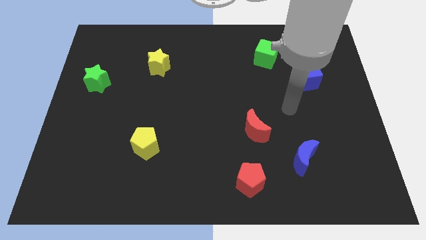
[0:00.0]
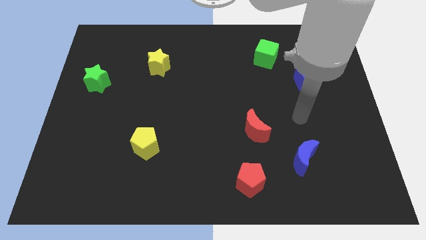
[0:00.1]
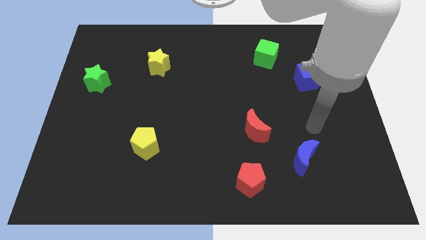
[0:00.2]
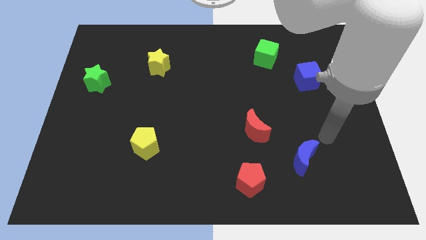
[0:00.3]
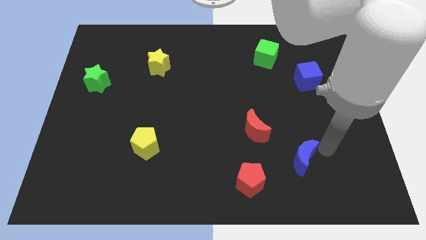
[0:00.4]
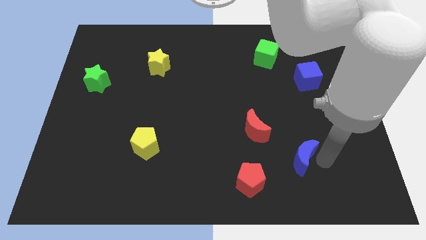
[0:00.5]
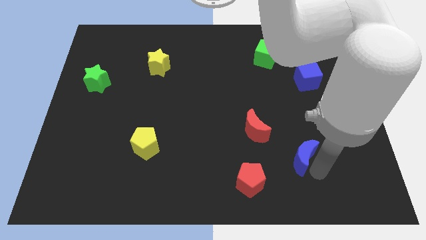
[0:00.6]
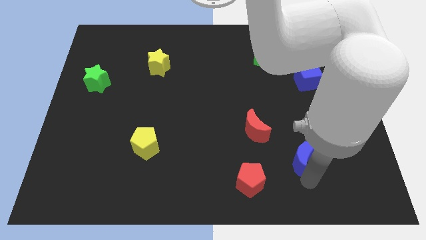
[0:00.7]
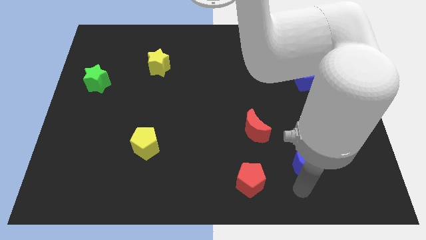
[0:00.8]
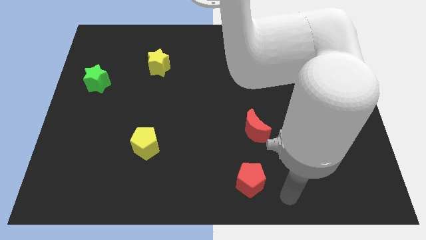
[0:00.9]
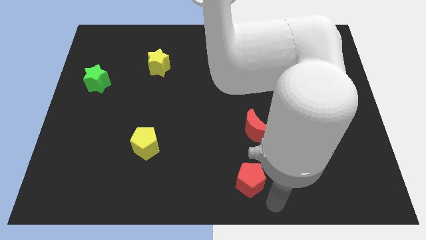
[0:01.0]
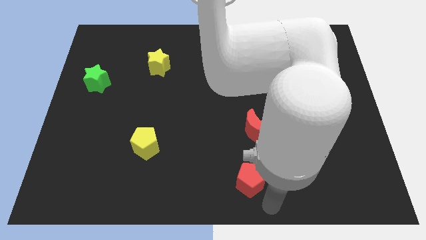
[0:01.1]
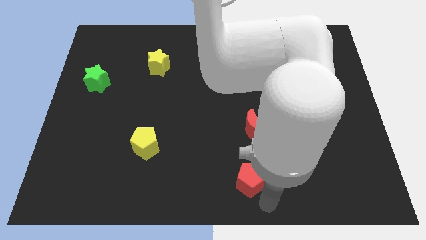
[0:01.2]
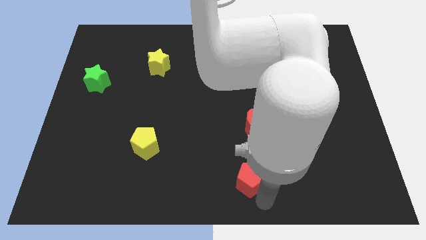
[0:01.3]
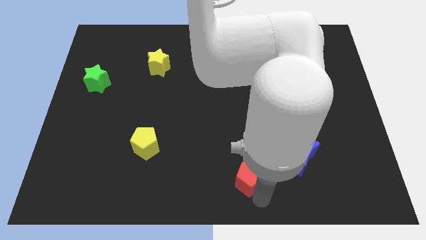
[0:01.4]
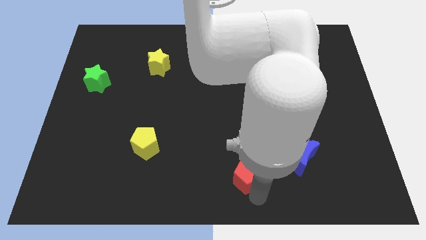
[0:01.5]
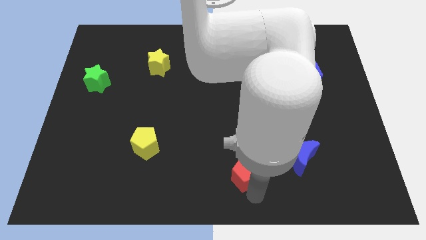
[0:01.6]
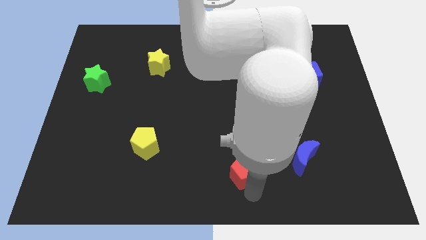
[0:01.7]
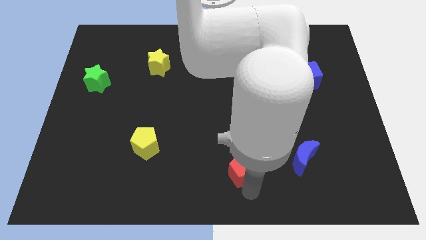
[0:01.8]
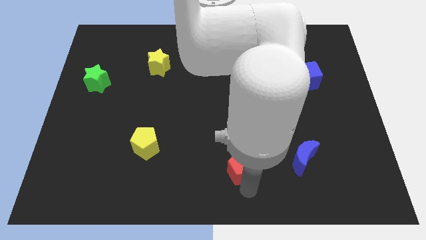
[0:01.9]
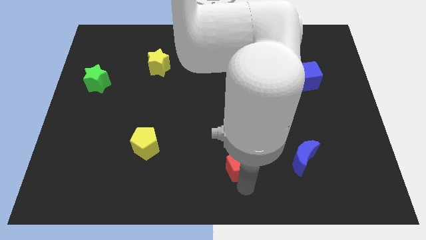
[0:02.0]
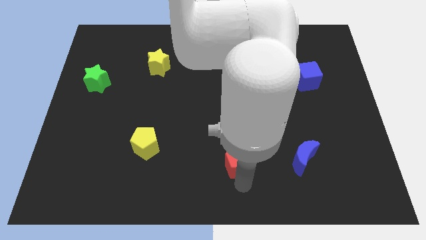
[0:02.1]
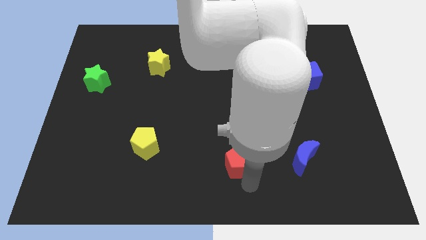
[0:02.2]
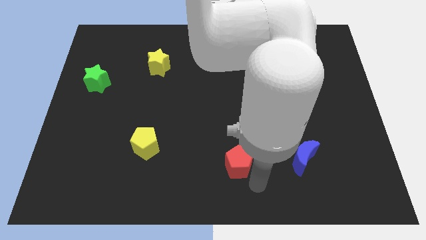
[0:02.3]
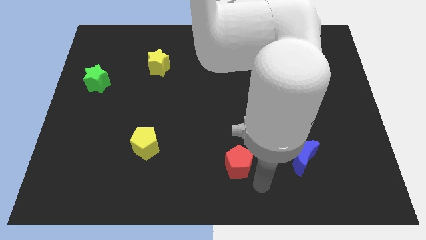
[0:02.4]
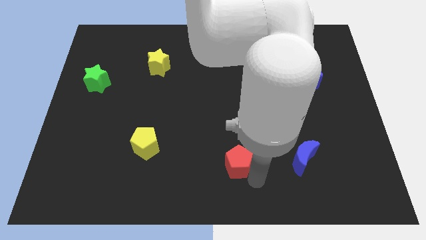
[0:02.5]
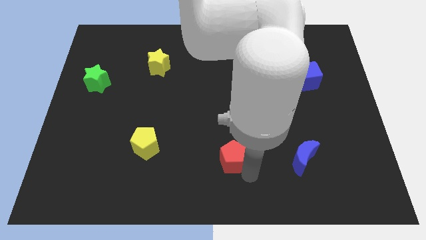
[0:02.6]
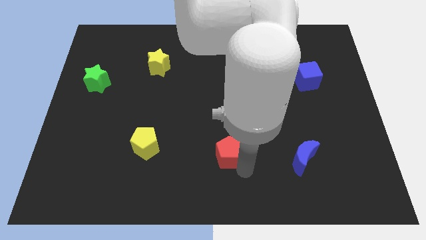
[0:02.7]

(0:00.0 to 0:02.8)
slightly push the red pentagon upwards and left

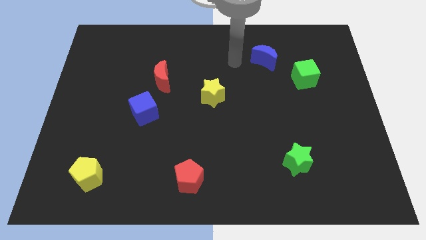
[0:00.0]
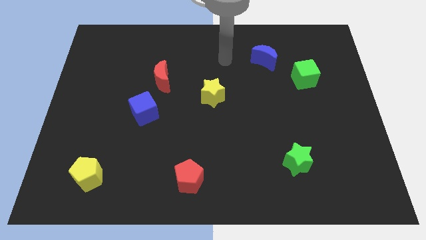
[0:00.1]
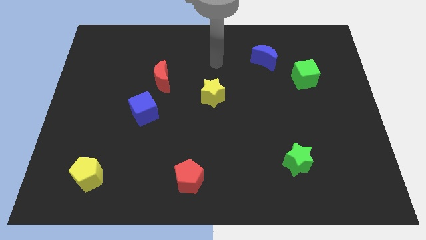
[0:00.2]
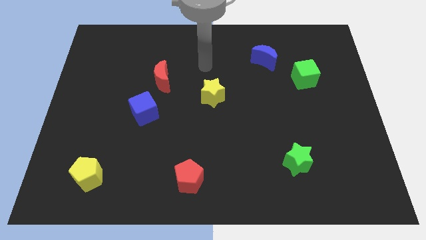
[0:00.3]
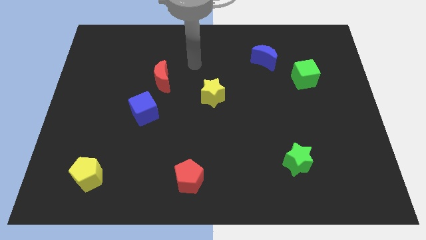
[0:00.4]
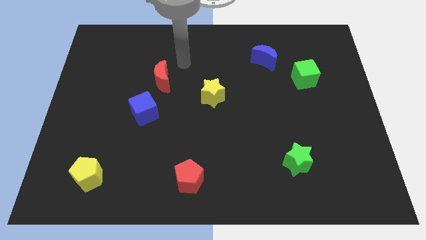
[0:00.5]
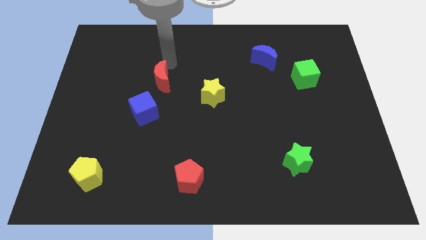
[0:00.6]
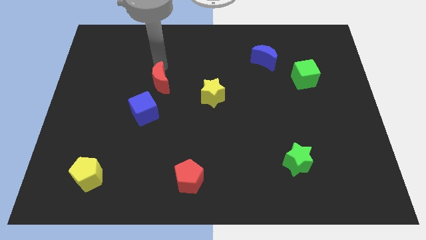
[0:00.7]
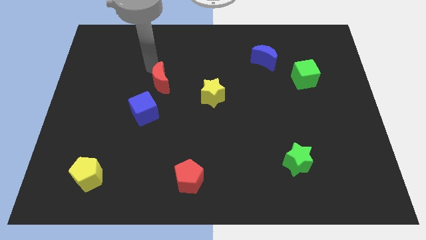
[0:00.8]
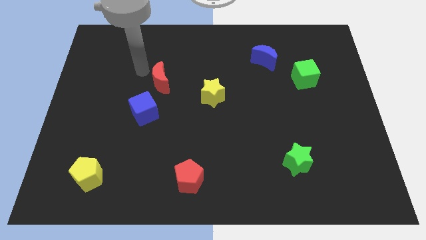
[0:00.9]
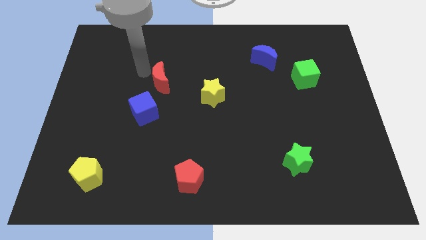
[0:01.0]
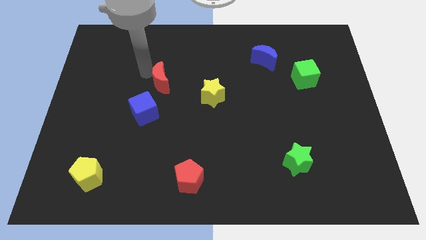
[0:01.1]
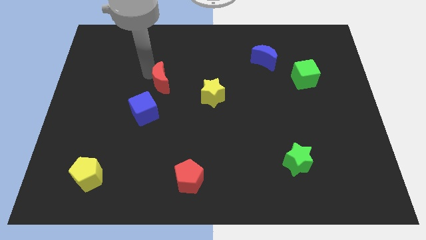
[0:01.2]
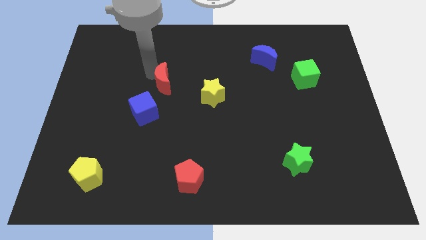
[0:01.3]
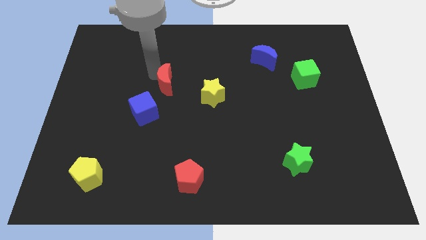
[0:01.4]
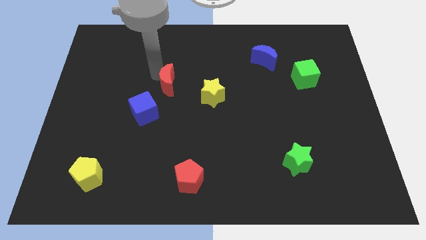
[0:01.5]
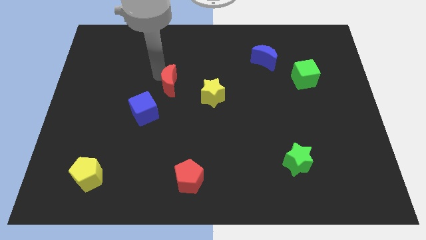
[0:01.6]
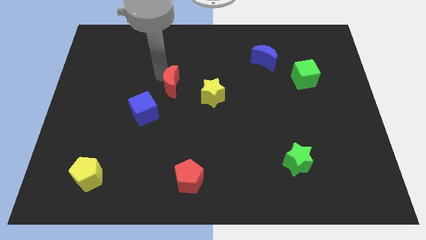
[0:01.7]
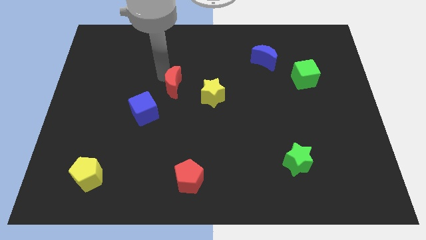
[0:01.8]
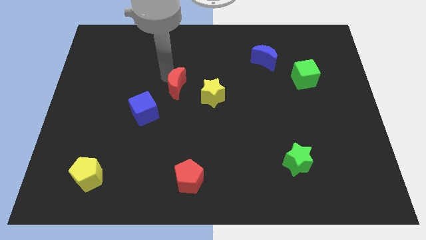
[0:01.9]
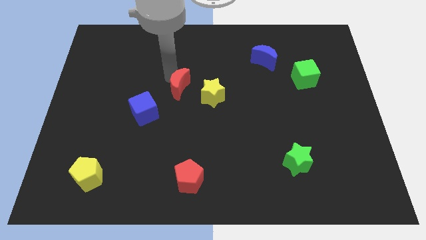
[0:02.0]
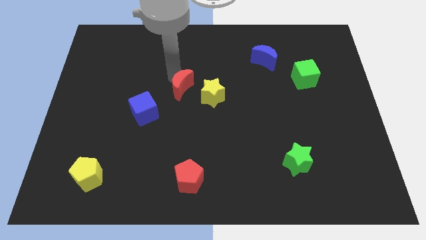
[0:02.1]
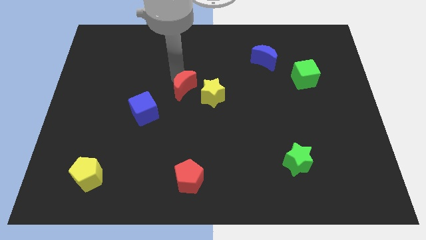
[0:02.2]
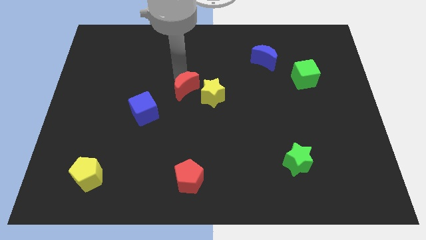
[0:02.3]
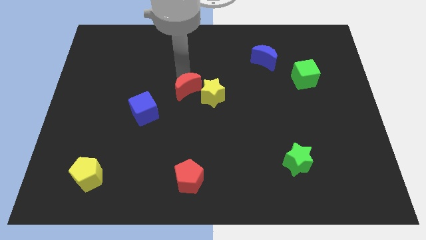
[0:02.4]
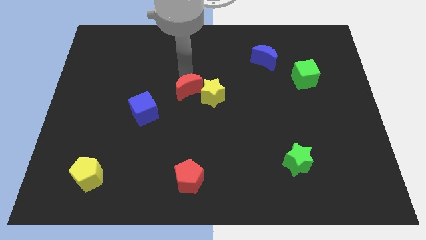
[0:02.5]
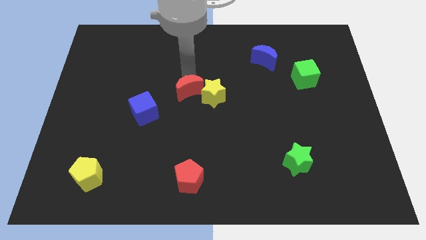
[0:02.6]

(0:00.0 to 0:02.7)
slightly move the red moon diagonally downwards and to the right

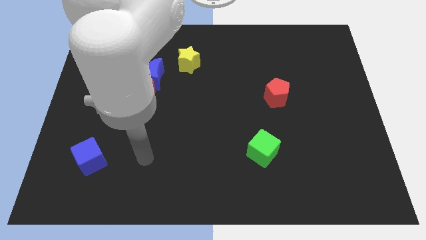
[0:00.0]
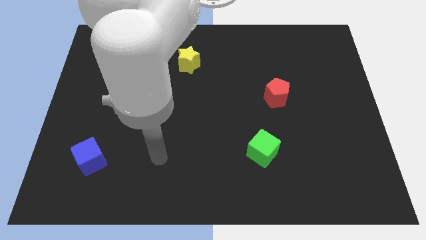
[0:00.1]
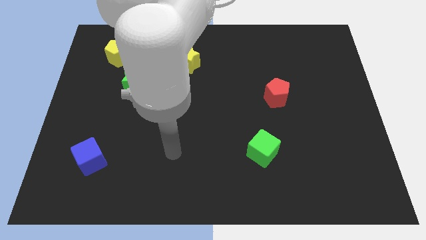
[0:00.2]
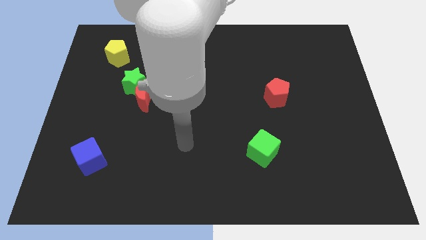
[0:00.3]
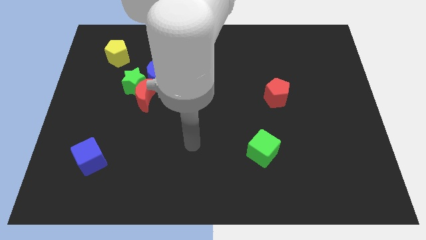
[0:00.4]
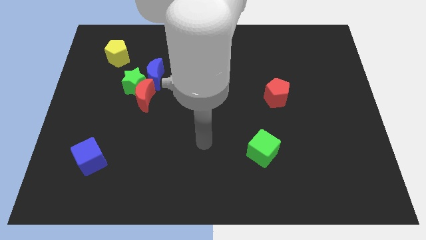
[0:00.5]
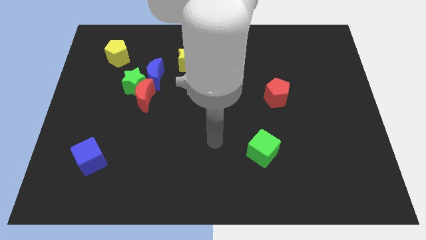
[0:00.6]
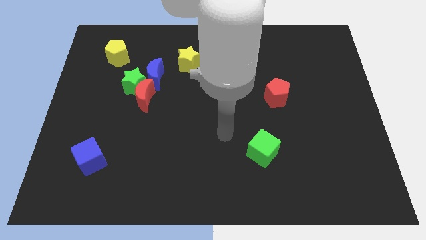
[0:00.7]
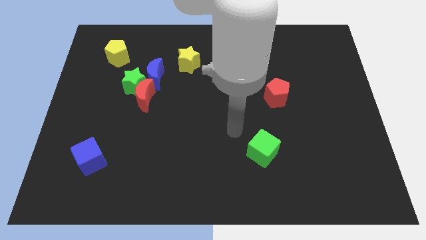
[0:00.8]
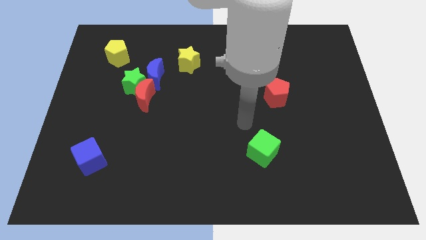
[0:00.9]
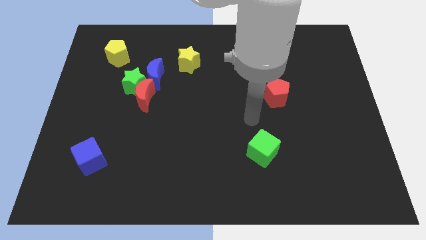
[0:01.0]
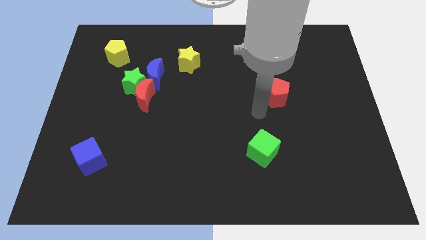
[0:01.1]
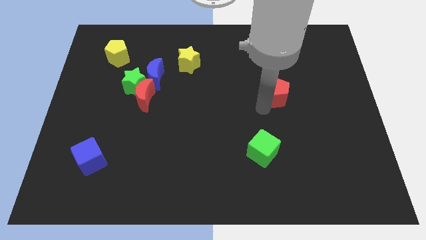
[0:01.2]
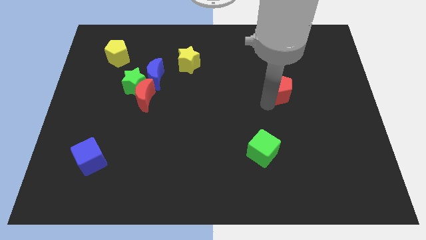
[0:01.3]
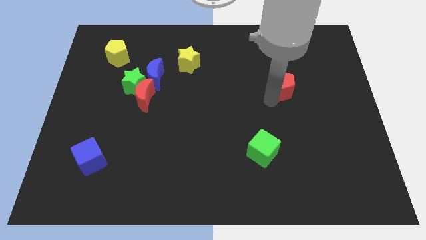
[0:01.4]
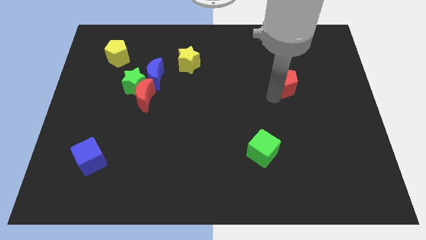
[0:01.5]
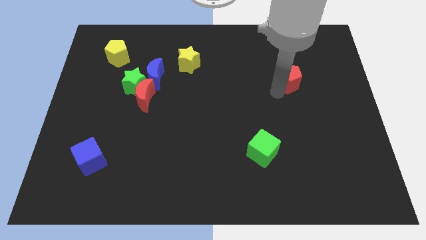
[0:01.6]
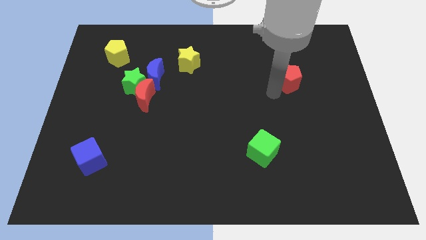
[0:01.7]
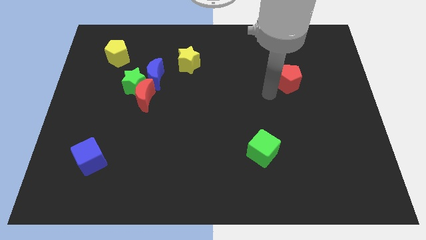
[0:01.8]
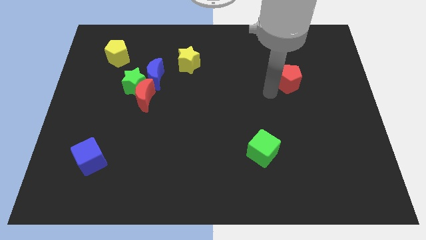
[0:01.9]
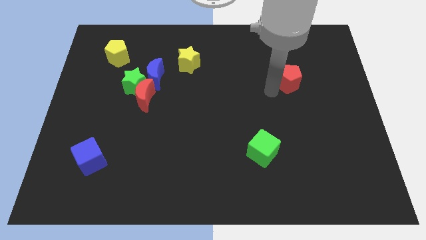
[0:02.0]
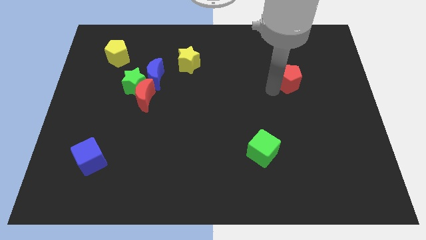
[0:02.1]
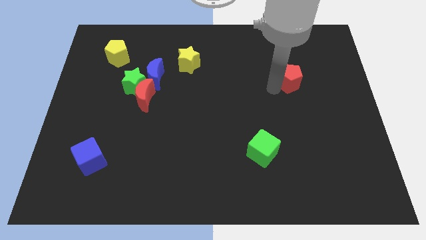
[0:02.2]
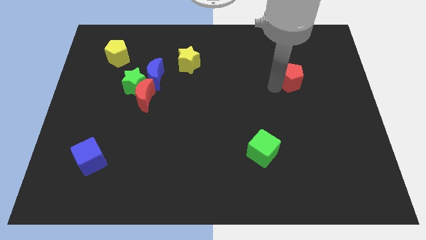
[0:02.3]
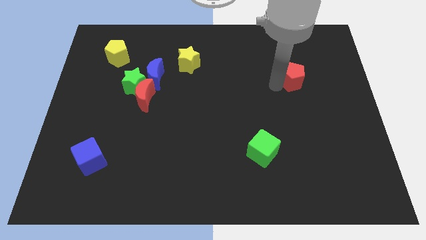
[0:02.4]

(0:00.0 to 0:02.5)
slightly push the red pentagon diagonally upwards and right
